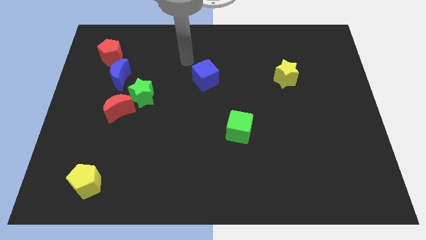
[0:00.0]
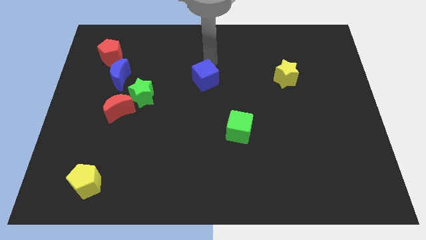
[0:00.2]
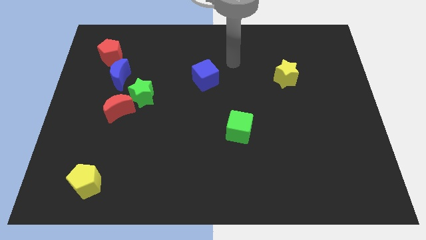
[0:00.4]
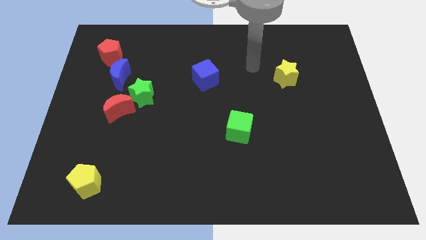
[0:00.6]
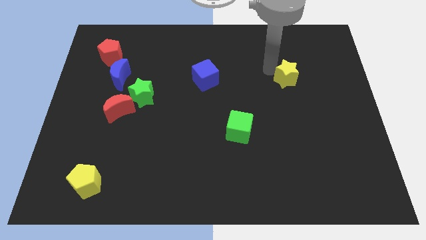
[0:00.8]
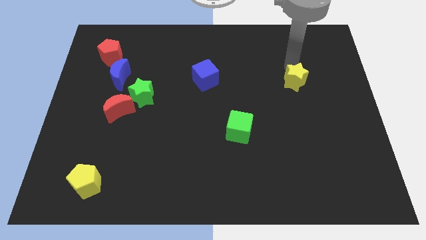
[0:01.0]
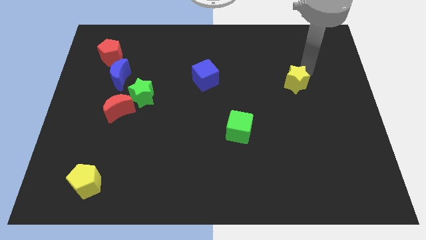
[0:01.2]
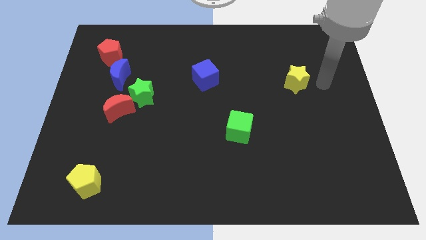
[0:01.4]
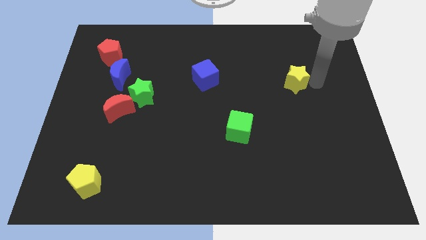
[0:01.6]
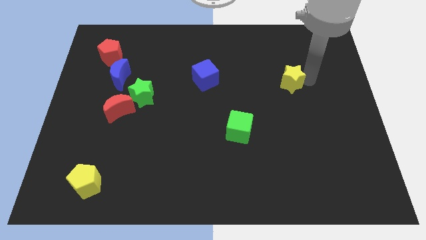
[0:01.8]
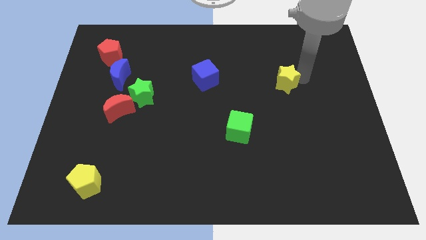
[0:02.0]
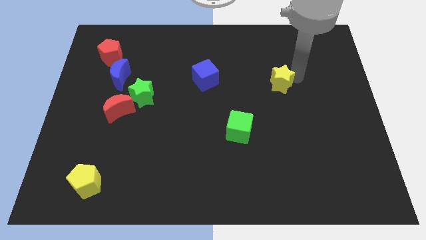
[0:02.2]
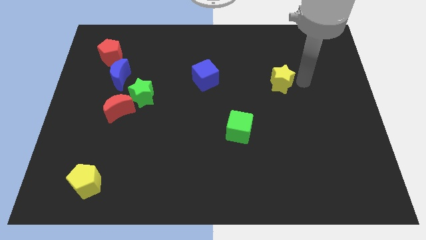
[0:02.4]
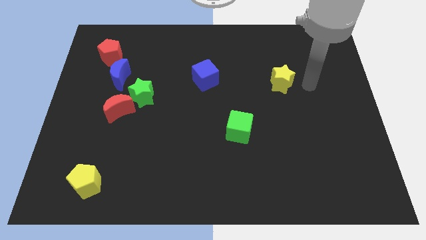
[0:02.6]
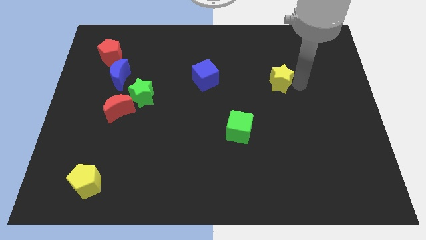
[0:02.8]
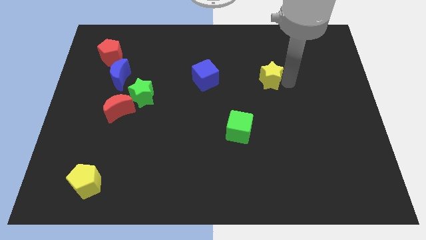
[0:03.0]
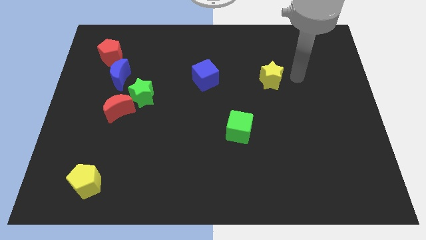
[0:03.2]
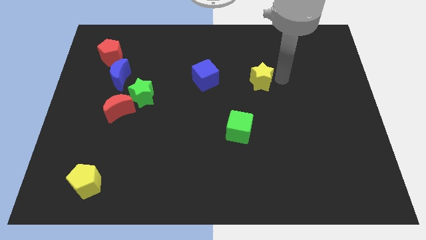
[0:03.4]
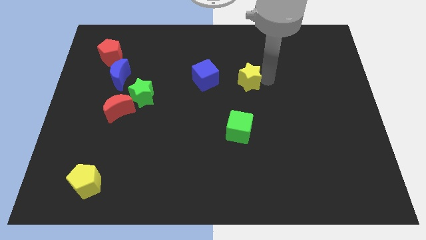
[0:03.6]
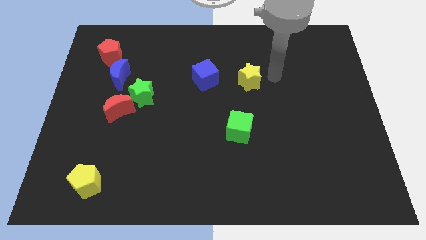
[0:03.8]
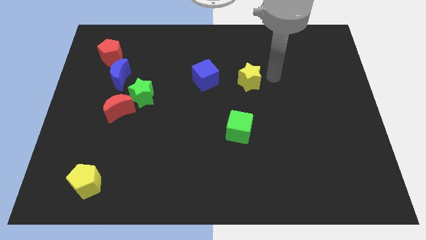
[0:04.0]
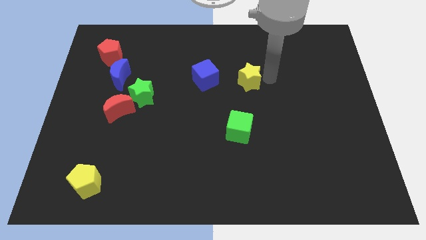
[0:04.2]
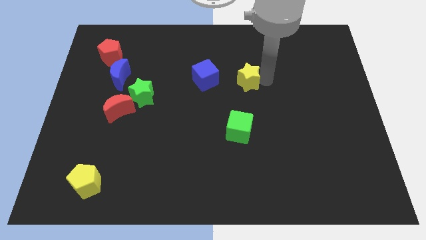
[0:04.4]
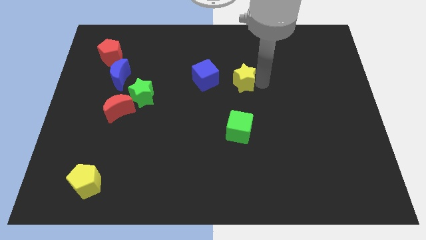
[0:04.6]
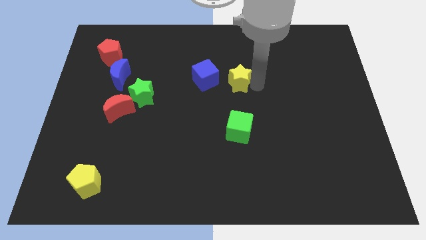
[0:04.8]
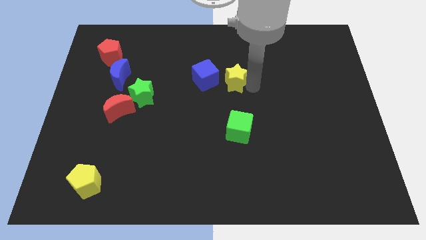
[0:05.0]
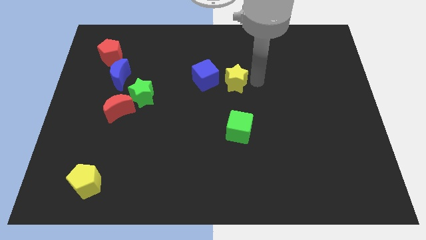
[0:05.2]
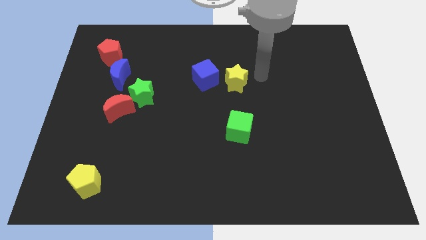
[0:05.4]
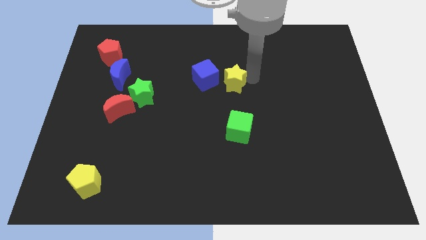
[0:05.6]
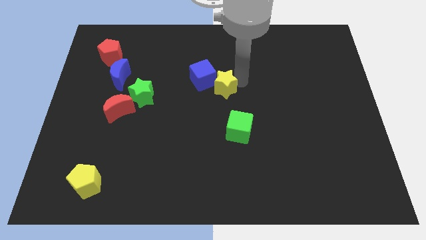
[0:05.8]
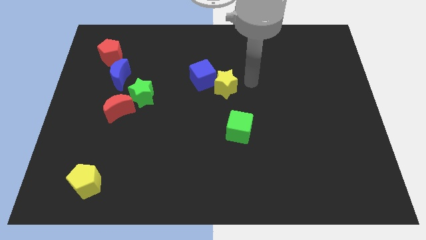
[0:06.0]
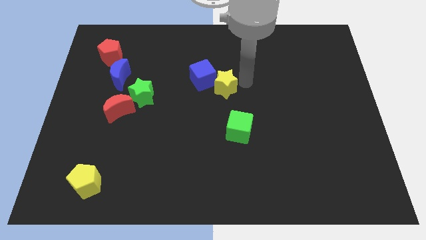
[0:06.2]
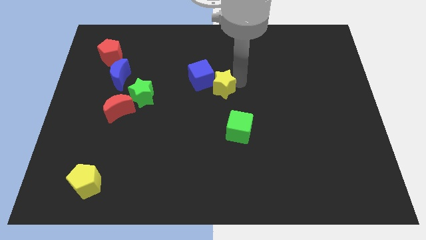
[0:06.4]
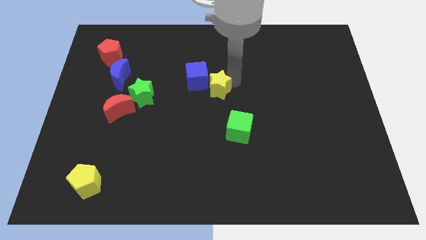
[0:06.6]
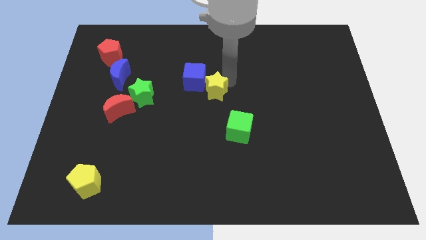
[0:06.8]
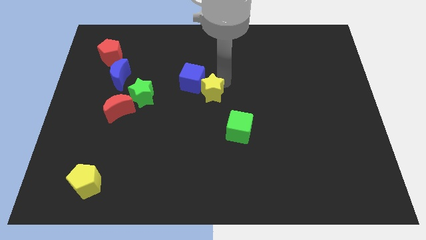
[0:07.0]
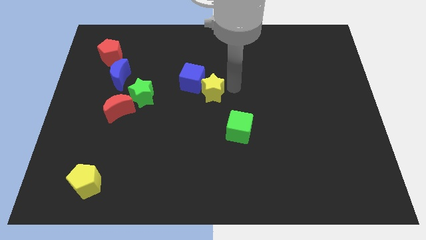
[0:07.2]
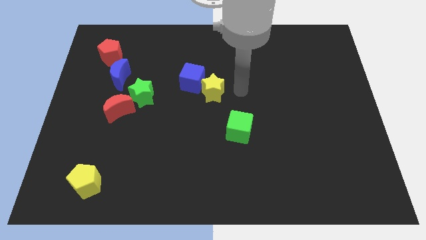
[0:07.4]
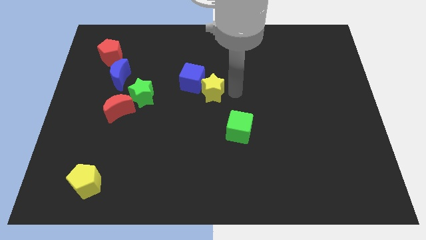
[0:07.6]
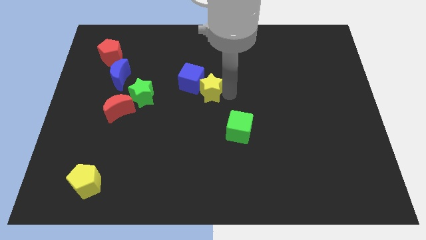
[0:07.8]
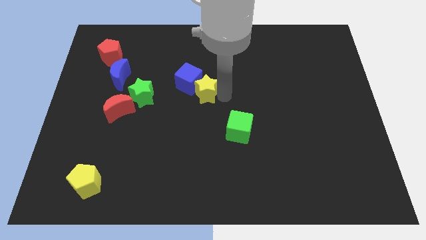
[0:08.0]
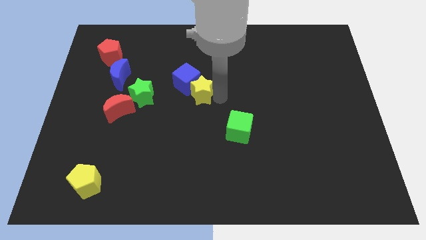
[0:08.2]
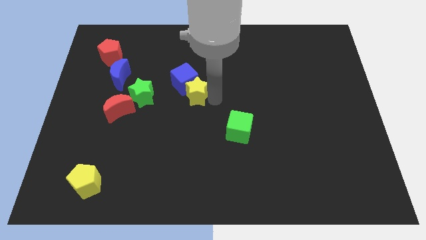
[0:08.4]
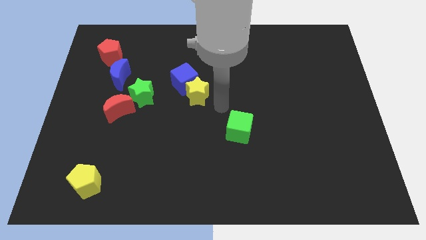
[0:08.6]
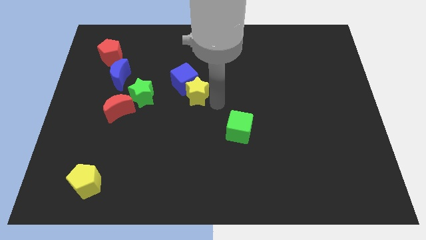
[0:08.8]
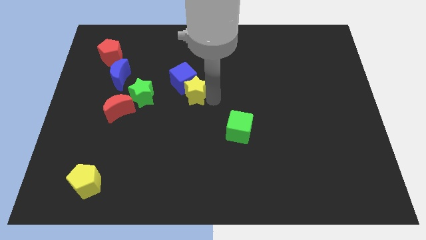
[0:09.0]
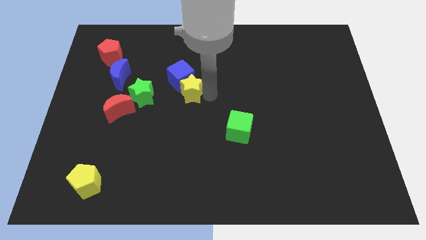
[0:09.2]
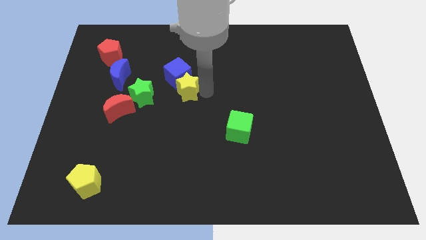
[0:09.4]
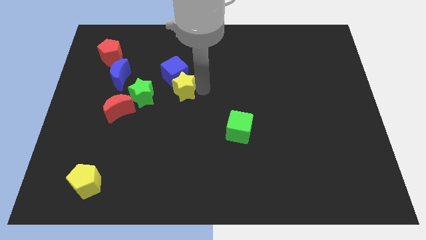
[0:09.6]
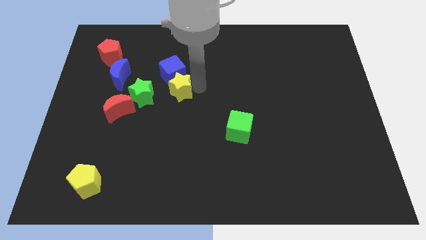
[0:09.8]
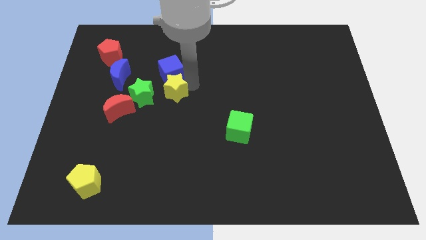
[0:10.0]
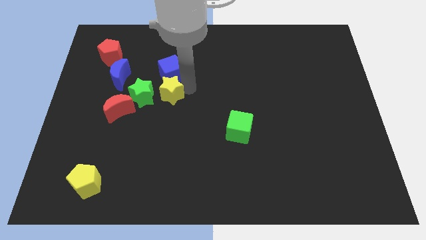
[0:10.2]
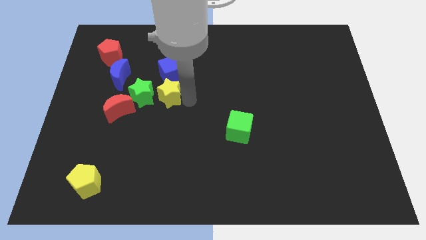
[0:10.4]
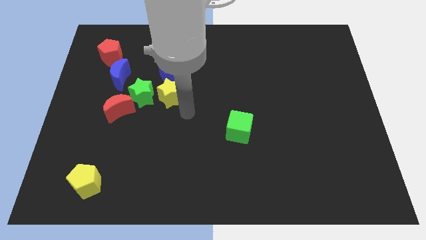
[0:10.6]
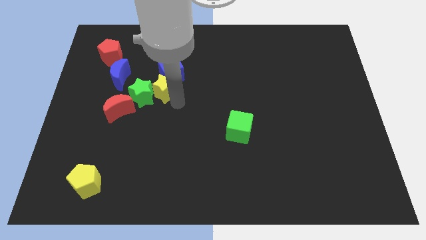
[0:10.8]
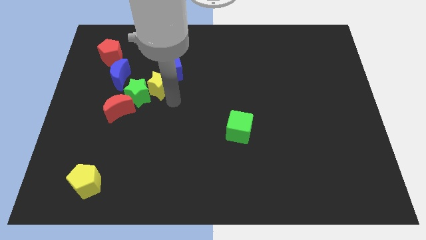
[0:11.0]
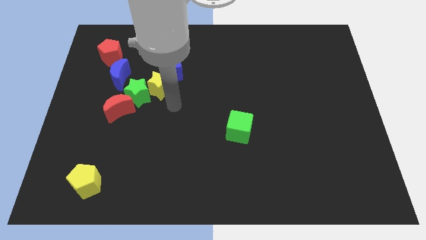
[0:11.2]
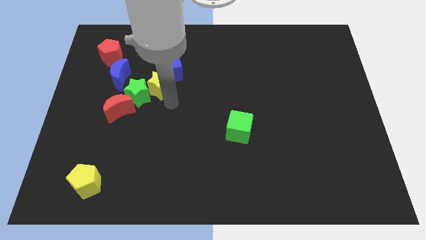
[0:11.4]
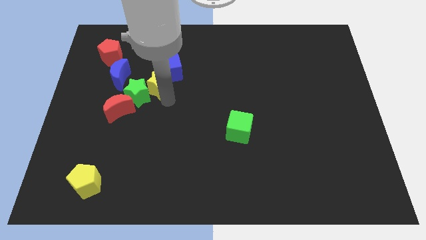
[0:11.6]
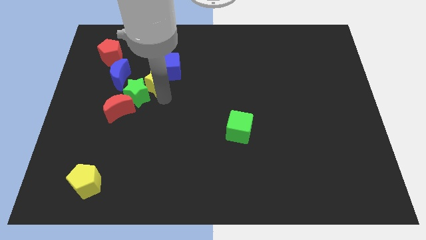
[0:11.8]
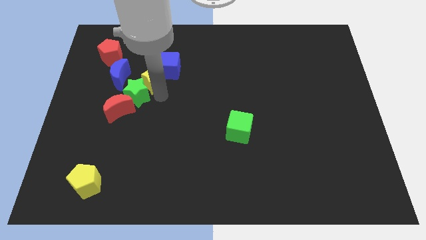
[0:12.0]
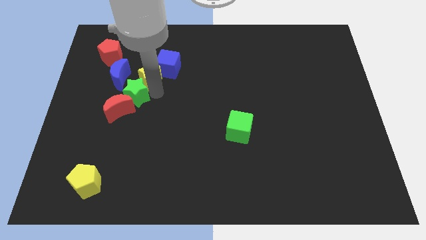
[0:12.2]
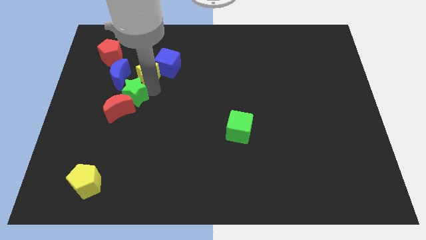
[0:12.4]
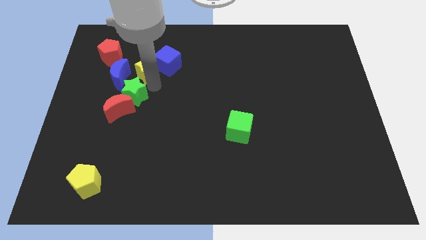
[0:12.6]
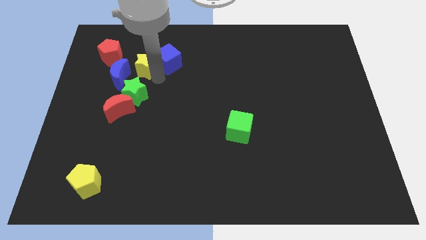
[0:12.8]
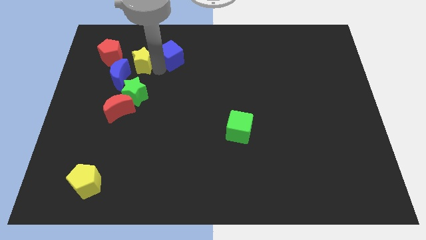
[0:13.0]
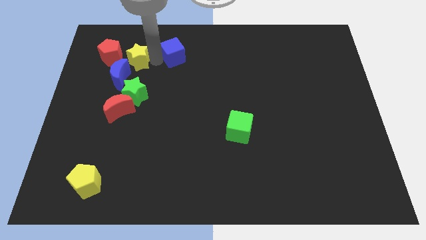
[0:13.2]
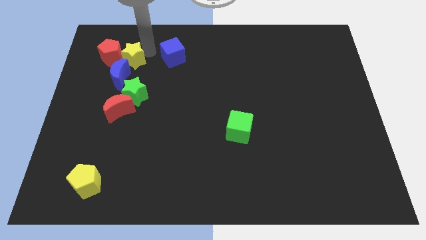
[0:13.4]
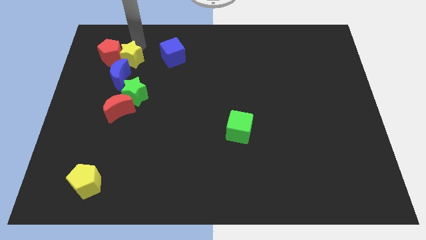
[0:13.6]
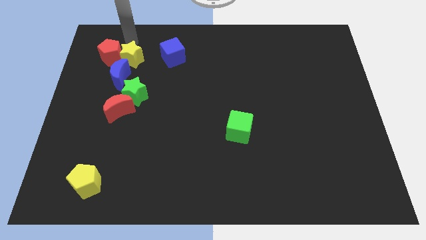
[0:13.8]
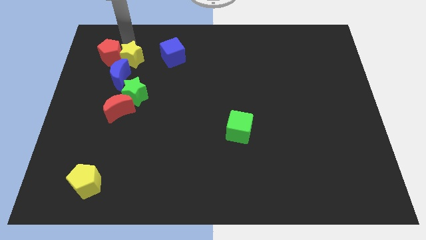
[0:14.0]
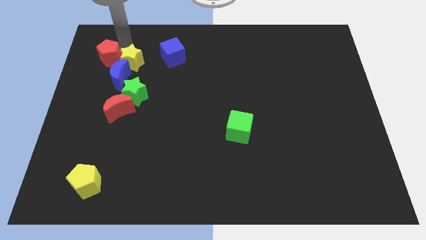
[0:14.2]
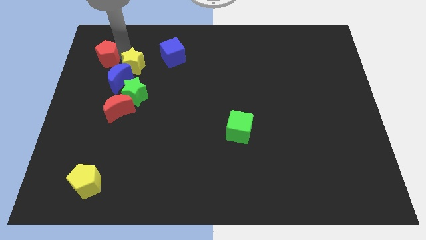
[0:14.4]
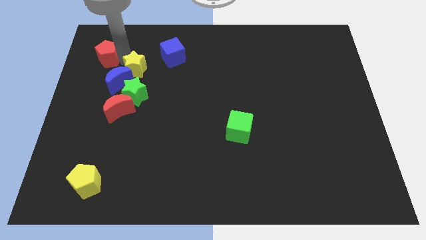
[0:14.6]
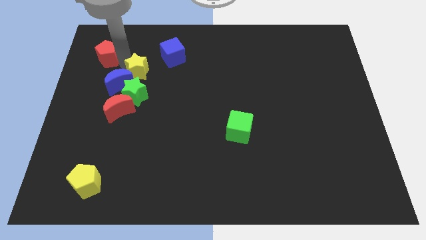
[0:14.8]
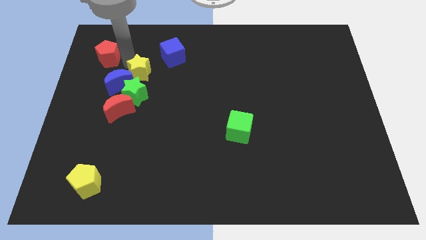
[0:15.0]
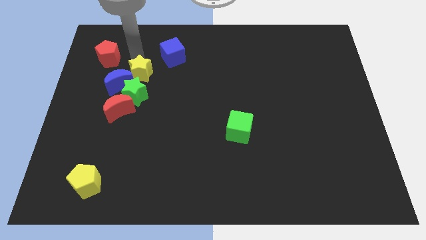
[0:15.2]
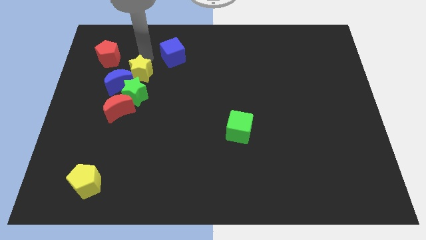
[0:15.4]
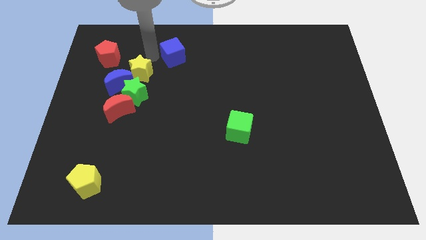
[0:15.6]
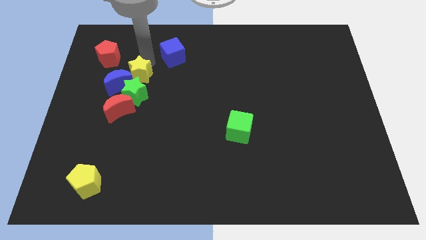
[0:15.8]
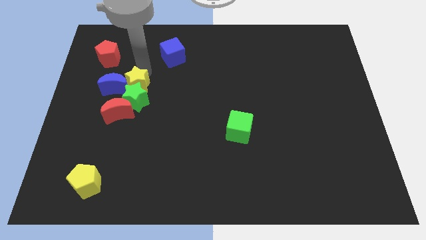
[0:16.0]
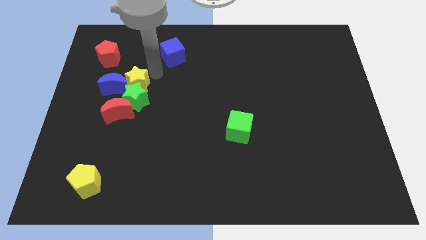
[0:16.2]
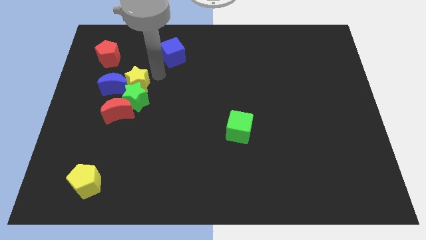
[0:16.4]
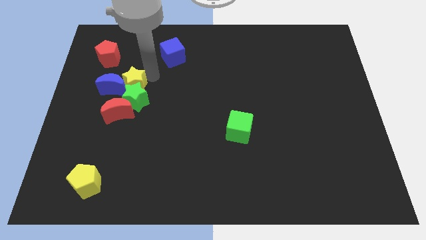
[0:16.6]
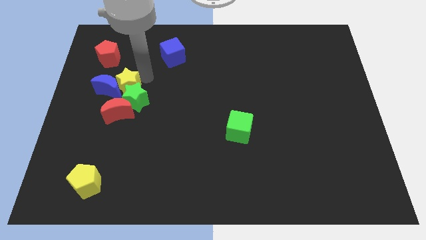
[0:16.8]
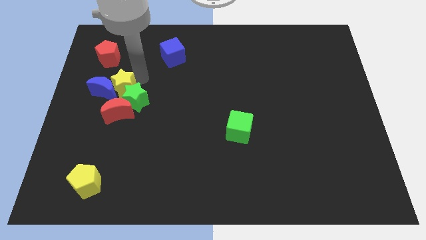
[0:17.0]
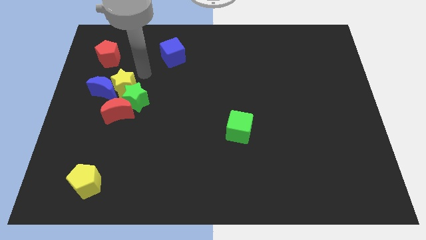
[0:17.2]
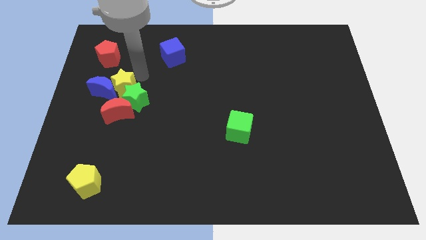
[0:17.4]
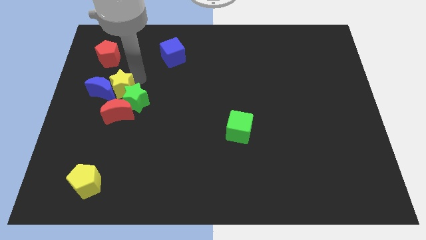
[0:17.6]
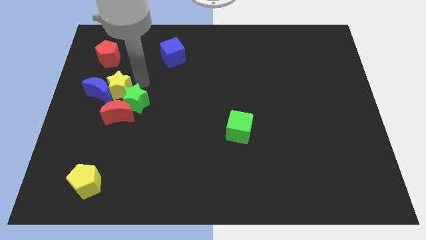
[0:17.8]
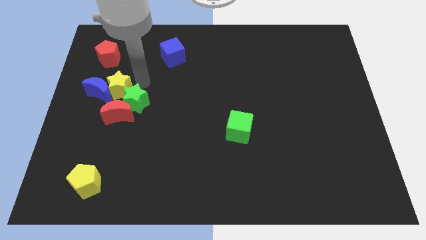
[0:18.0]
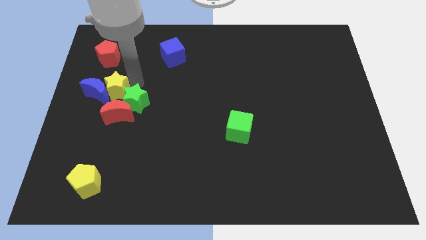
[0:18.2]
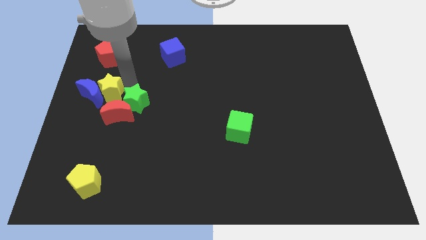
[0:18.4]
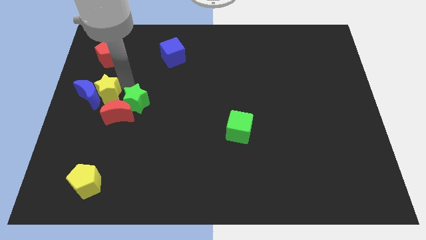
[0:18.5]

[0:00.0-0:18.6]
push the yellow star to the left side
